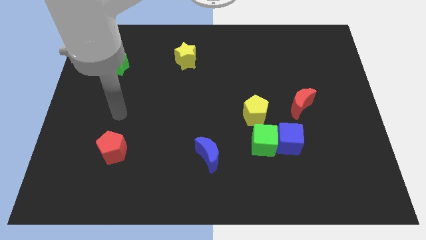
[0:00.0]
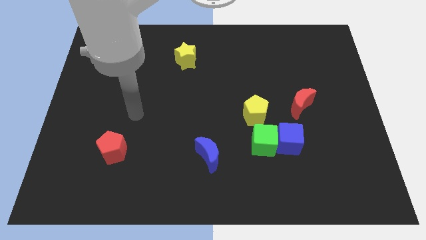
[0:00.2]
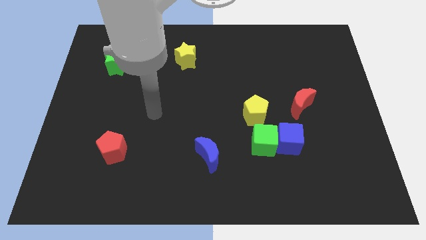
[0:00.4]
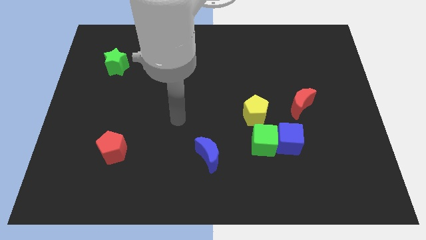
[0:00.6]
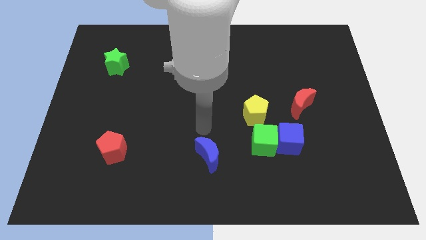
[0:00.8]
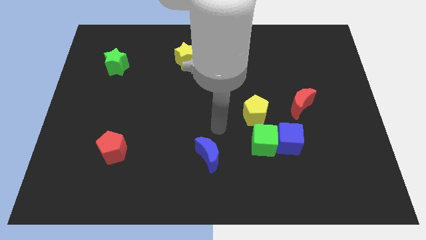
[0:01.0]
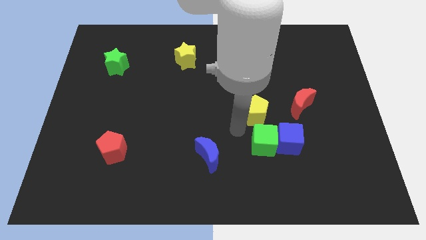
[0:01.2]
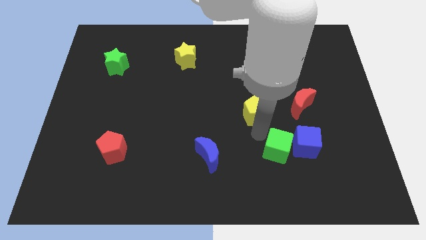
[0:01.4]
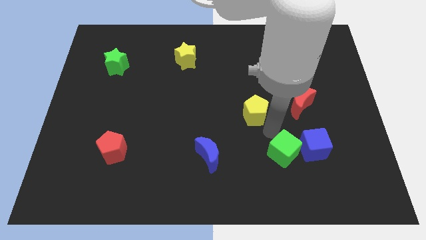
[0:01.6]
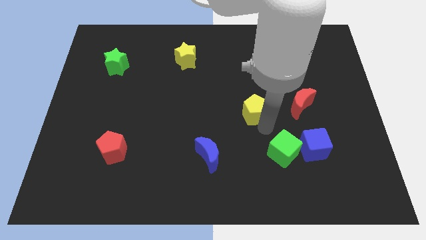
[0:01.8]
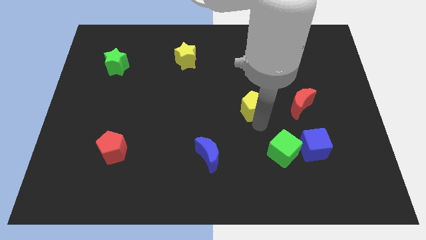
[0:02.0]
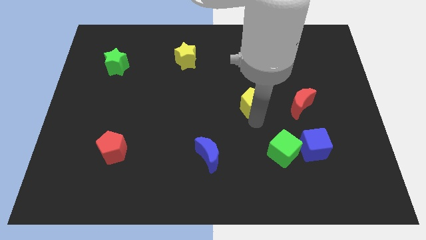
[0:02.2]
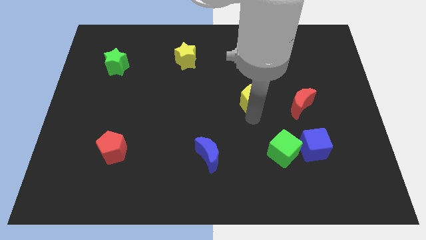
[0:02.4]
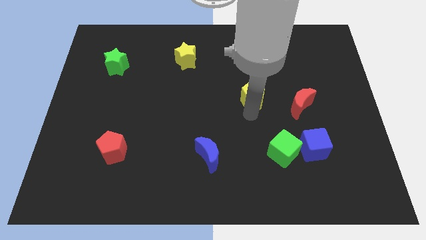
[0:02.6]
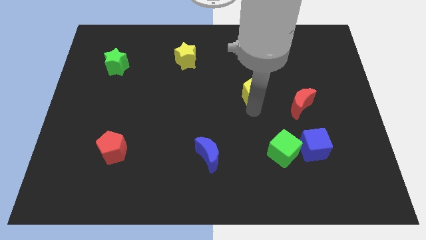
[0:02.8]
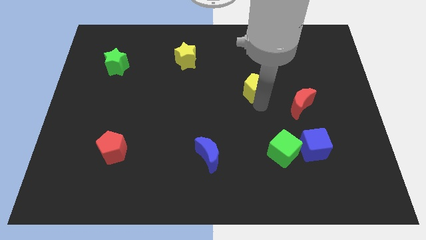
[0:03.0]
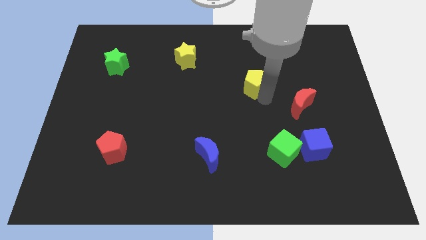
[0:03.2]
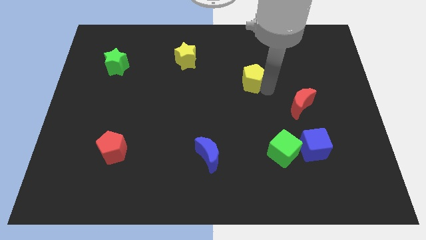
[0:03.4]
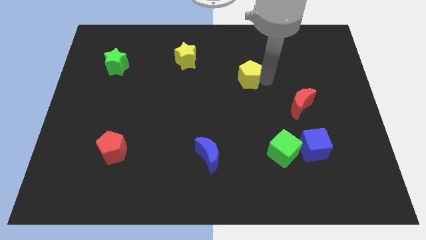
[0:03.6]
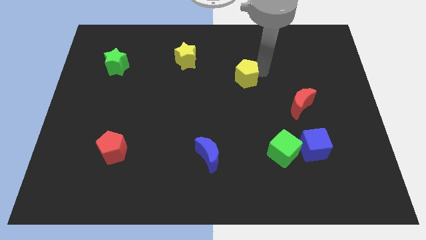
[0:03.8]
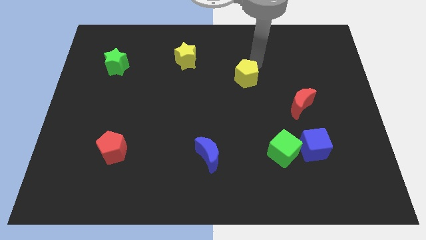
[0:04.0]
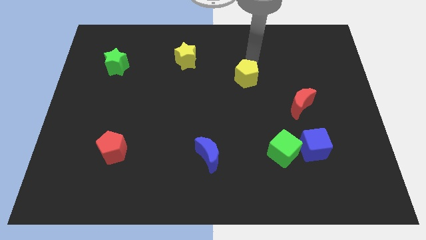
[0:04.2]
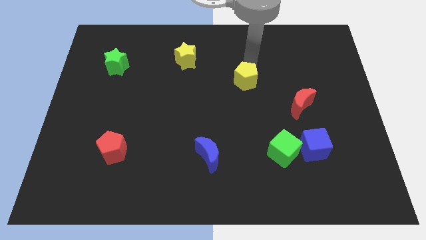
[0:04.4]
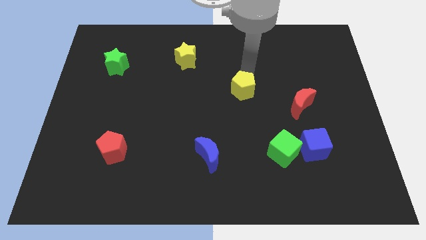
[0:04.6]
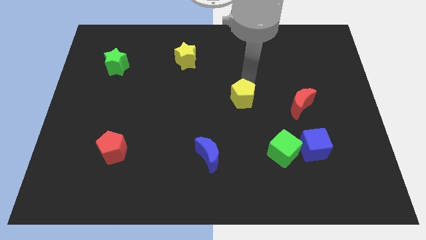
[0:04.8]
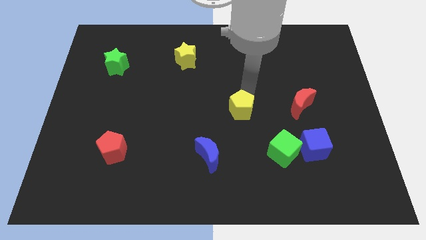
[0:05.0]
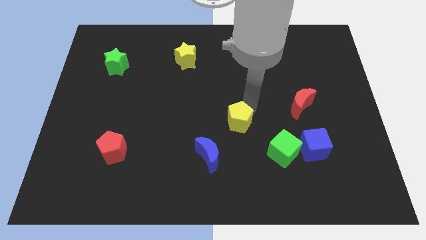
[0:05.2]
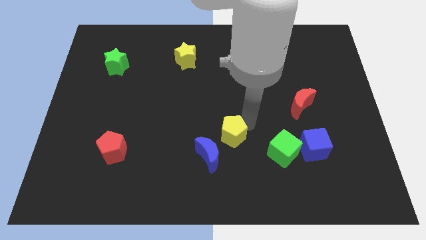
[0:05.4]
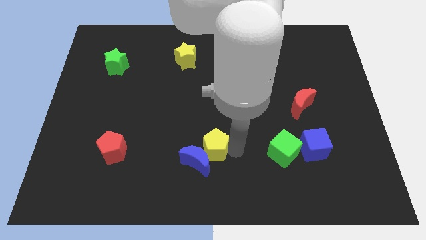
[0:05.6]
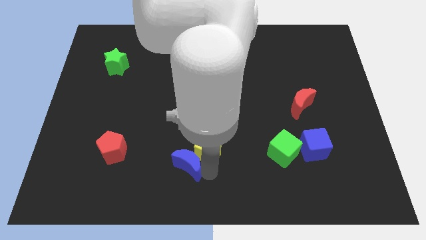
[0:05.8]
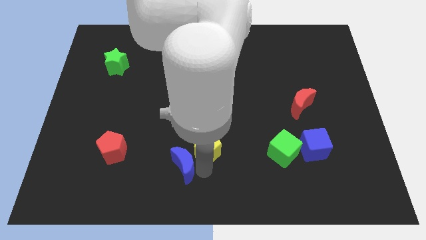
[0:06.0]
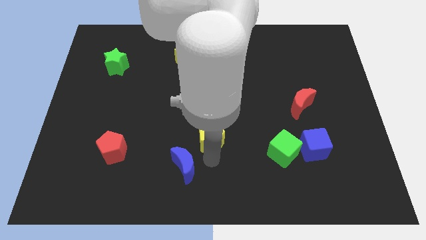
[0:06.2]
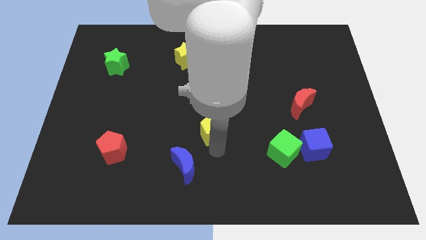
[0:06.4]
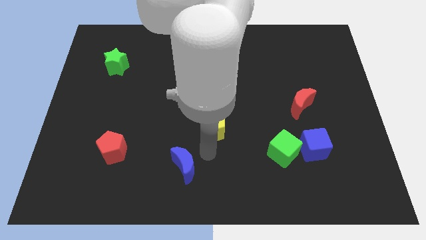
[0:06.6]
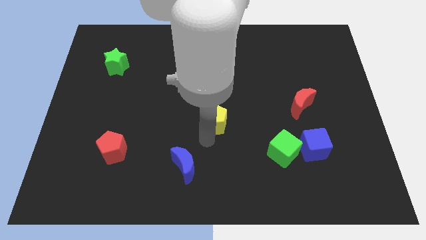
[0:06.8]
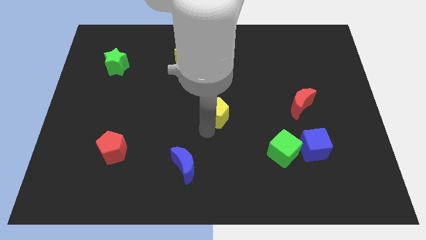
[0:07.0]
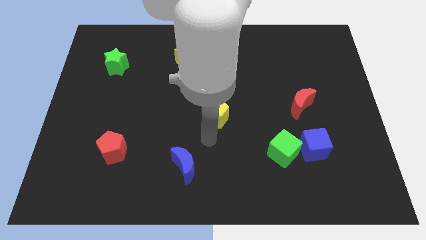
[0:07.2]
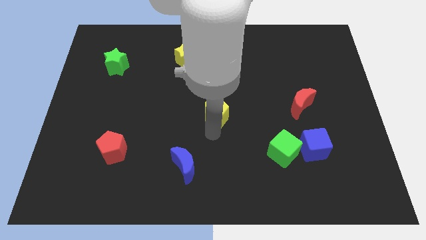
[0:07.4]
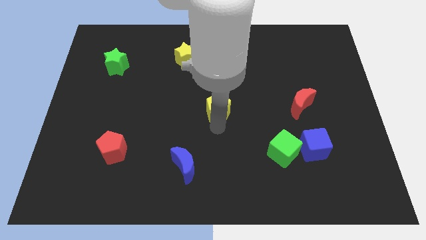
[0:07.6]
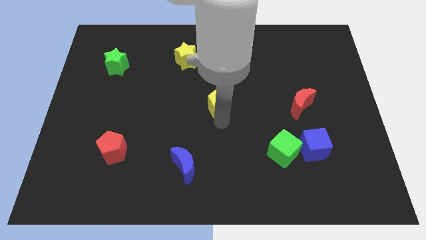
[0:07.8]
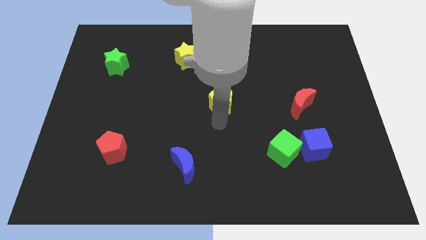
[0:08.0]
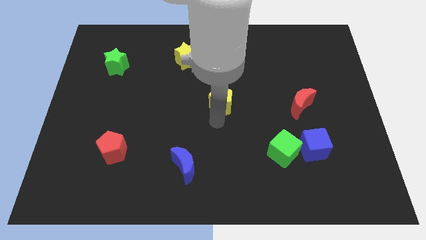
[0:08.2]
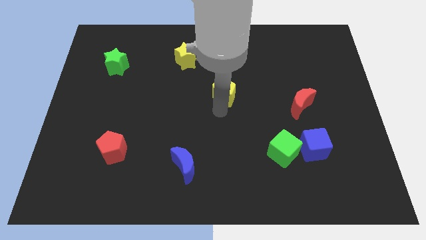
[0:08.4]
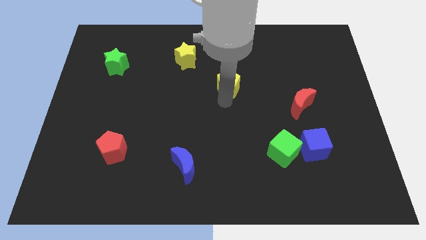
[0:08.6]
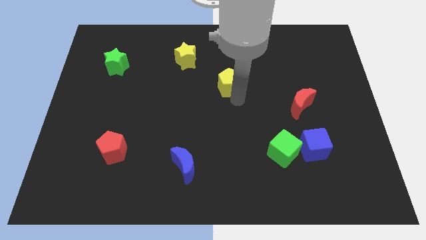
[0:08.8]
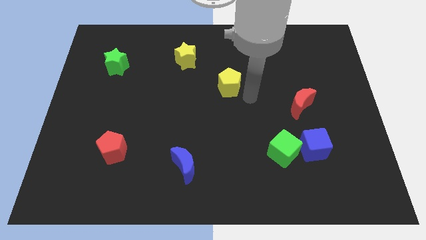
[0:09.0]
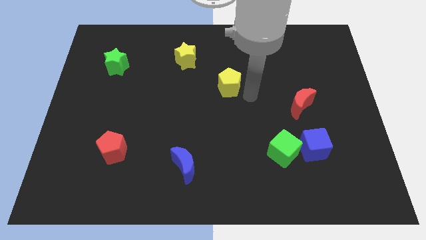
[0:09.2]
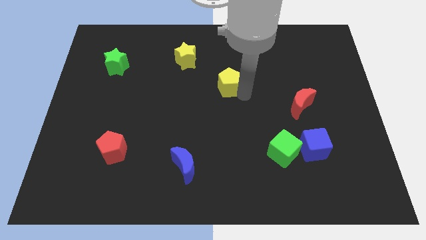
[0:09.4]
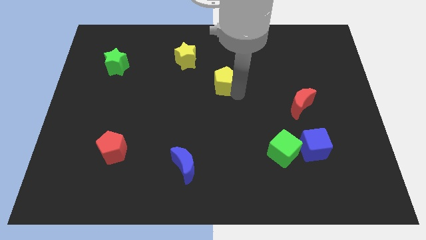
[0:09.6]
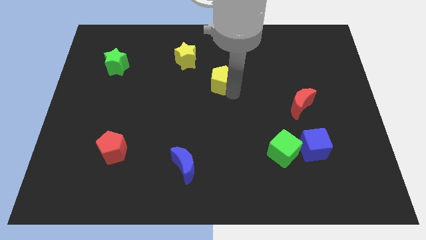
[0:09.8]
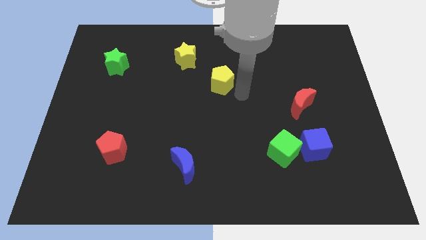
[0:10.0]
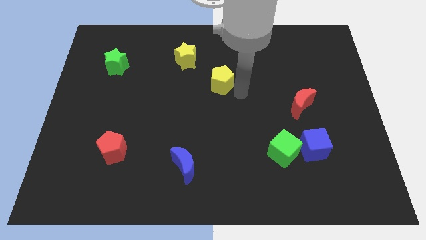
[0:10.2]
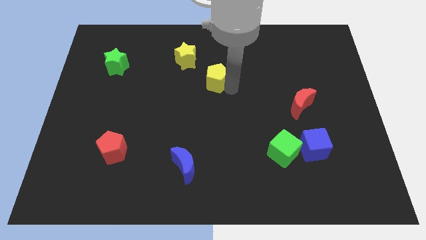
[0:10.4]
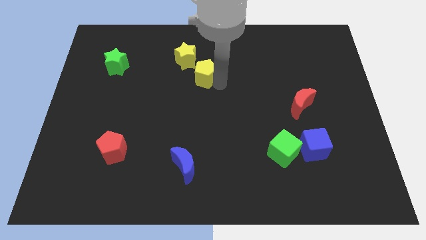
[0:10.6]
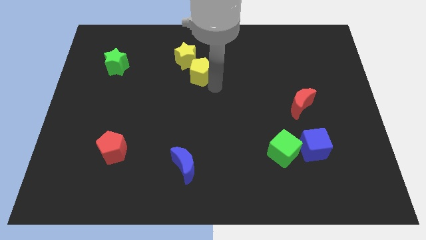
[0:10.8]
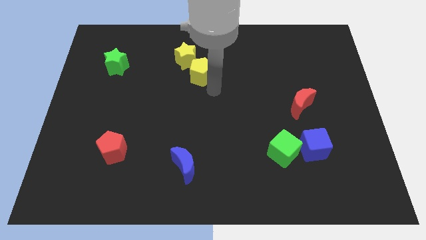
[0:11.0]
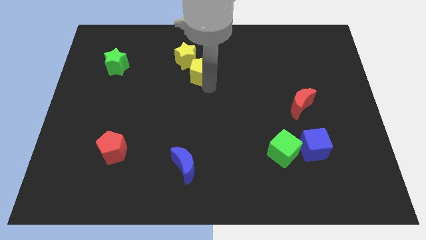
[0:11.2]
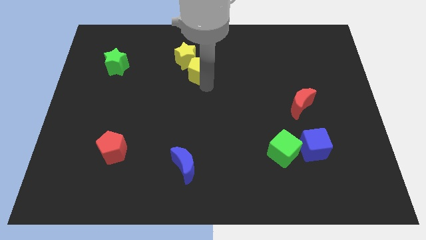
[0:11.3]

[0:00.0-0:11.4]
put the yellow pentagon next to the yellow star

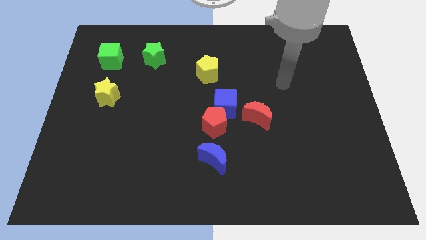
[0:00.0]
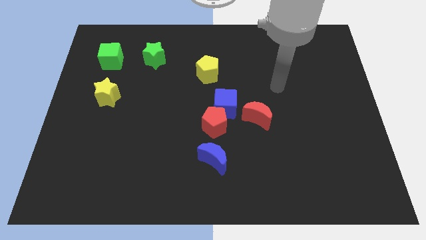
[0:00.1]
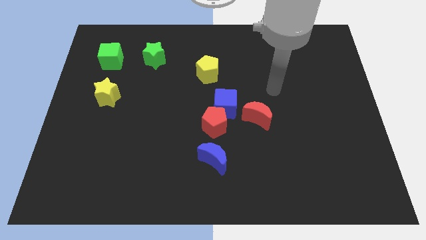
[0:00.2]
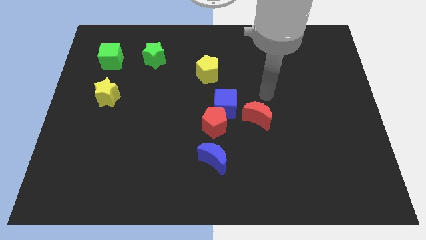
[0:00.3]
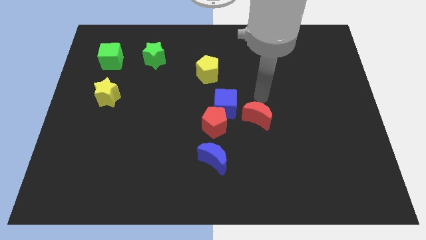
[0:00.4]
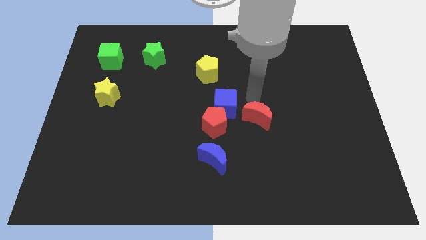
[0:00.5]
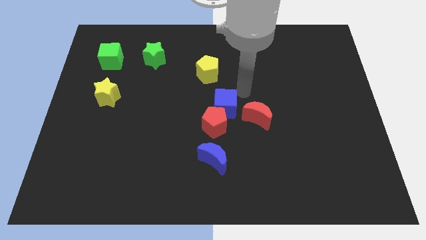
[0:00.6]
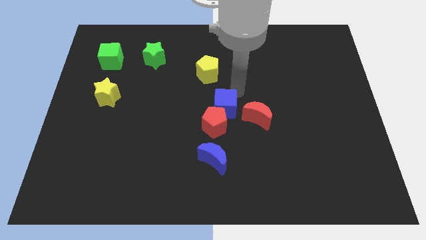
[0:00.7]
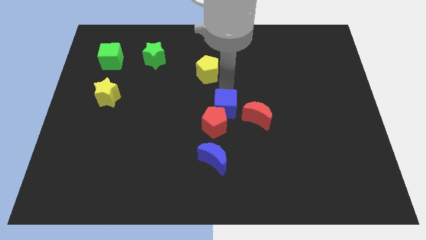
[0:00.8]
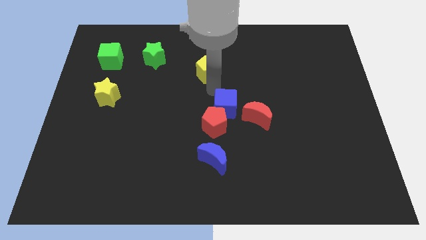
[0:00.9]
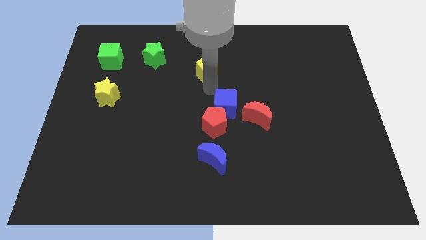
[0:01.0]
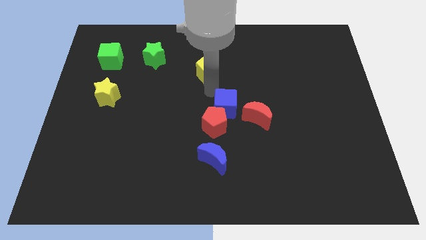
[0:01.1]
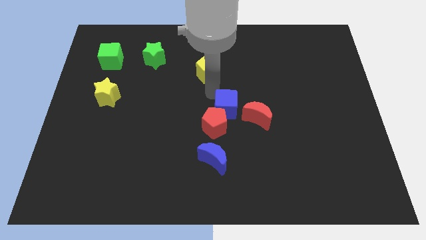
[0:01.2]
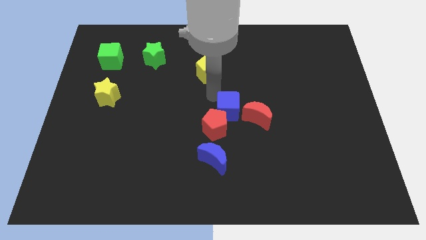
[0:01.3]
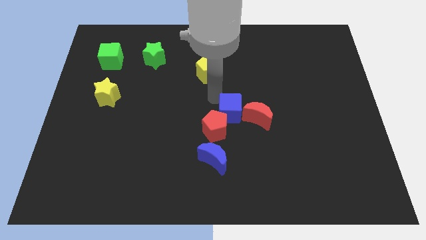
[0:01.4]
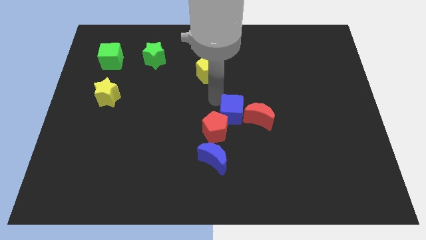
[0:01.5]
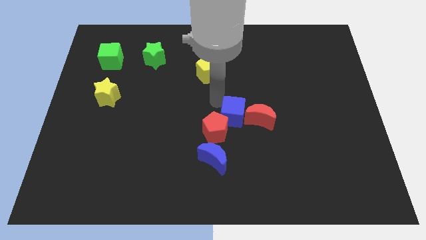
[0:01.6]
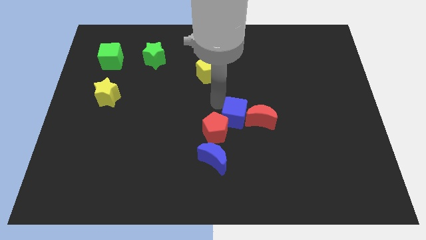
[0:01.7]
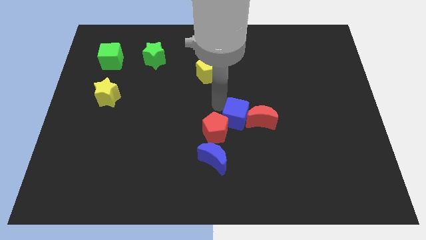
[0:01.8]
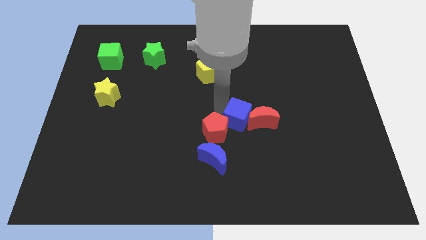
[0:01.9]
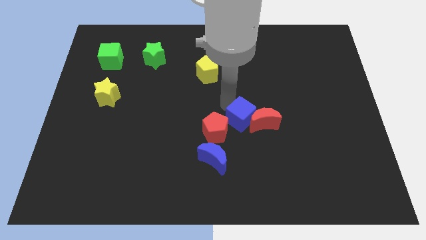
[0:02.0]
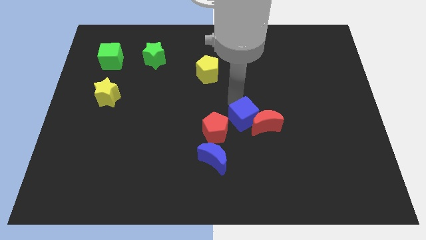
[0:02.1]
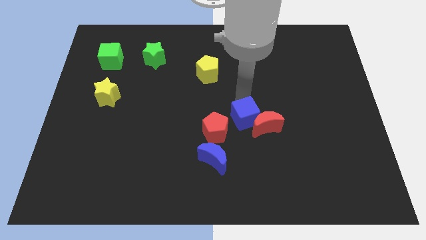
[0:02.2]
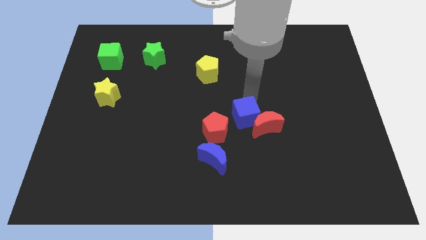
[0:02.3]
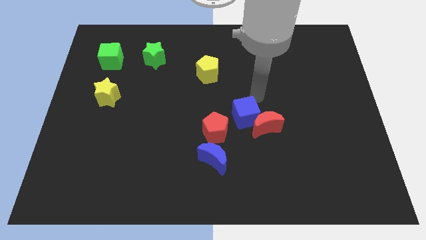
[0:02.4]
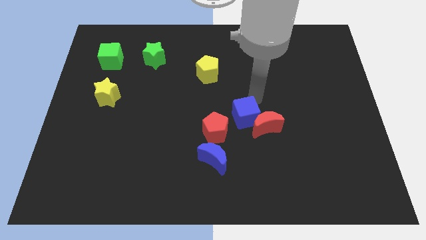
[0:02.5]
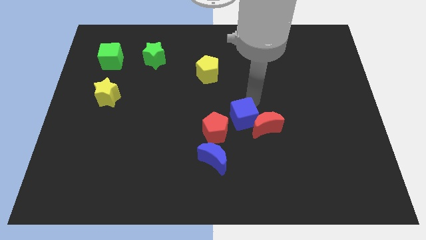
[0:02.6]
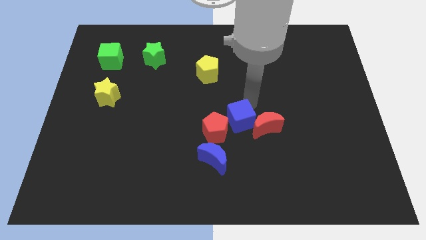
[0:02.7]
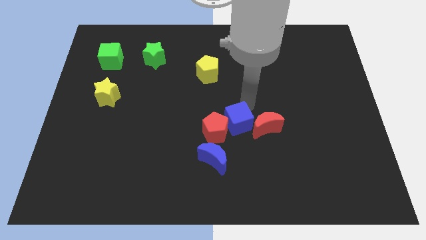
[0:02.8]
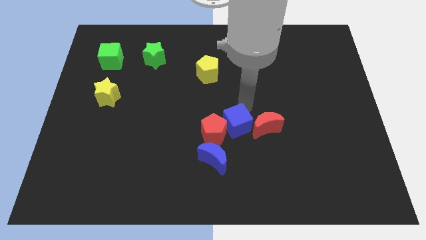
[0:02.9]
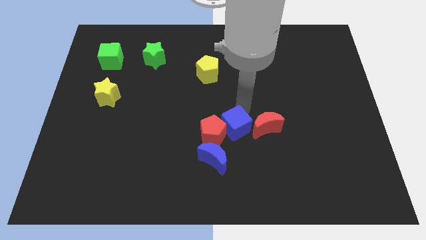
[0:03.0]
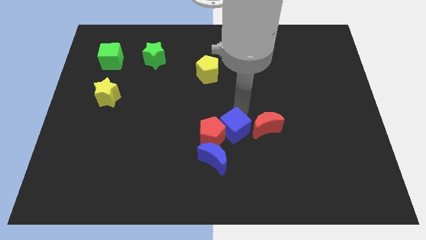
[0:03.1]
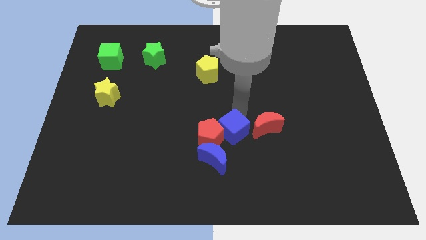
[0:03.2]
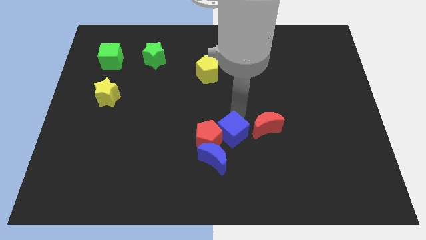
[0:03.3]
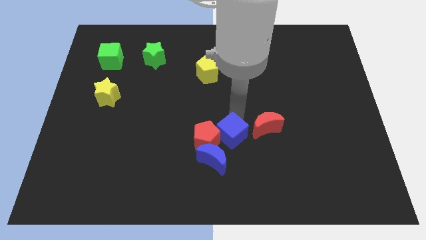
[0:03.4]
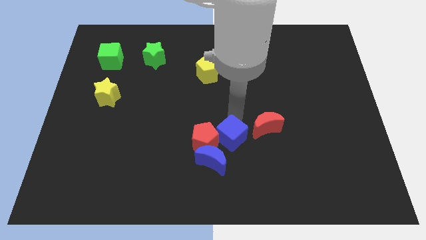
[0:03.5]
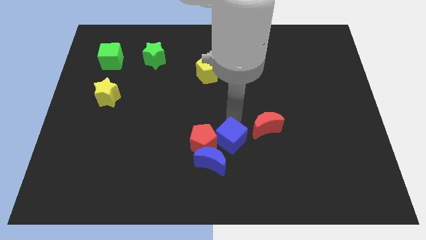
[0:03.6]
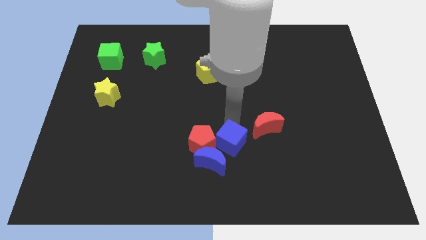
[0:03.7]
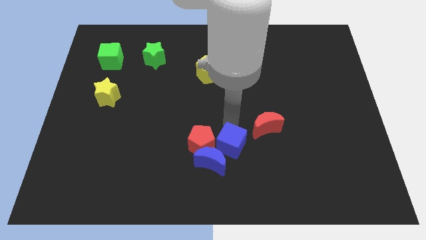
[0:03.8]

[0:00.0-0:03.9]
slide the blue cube to the blue moon
